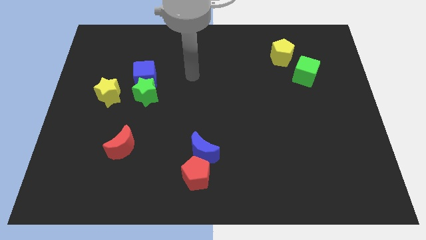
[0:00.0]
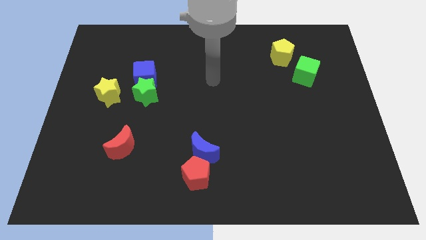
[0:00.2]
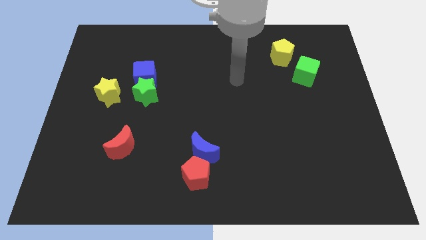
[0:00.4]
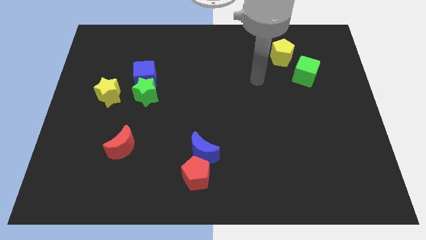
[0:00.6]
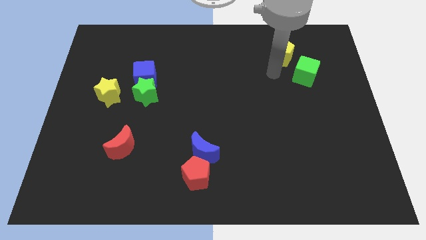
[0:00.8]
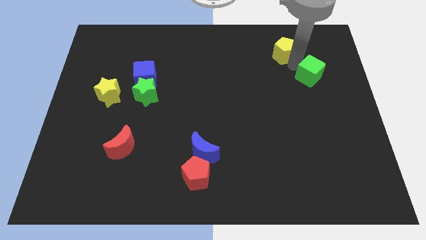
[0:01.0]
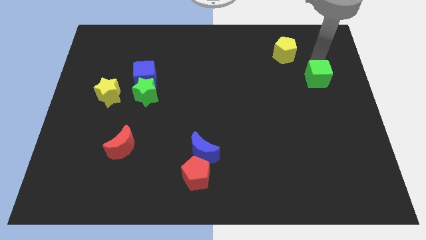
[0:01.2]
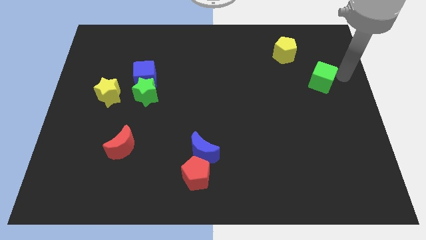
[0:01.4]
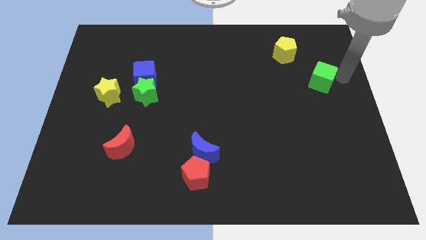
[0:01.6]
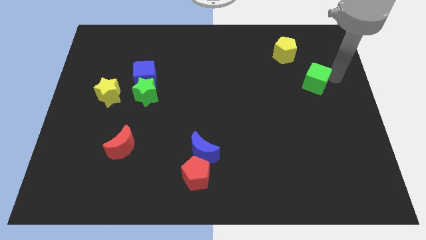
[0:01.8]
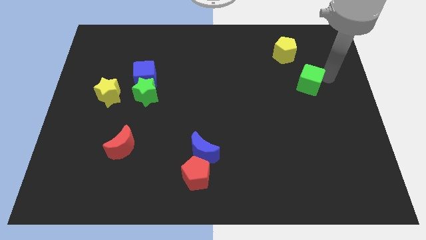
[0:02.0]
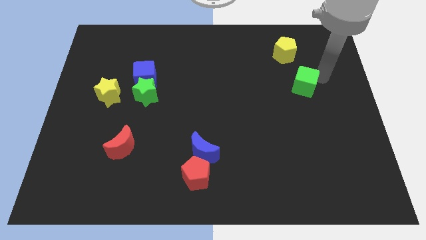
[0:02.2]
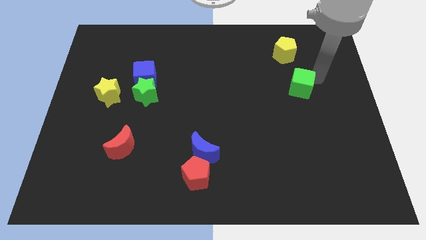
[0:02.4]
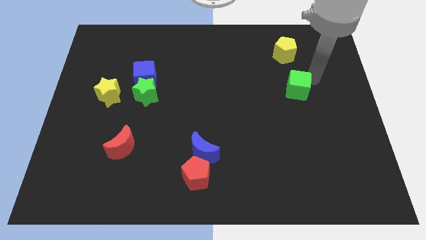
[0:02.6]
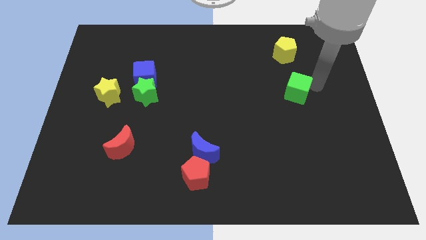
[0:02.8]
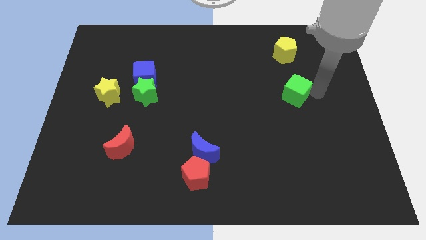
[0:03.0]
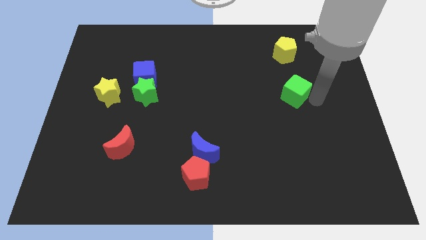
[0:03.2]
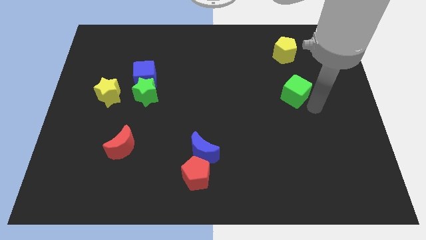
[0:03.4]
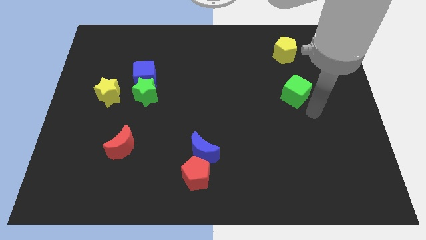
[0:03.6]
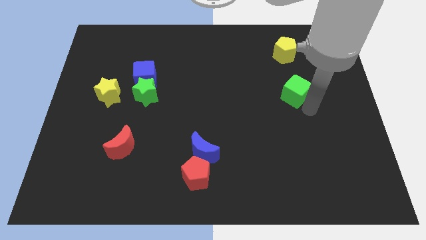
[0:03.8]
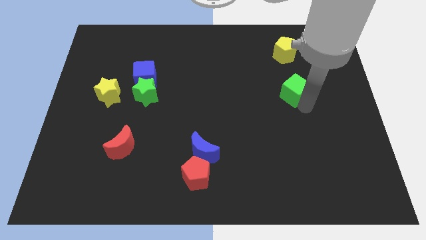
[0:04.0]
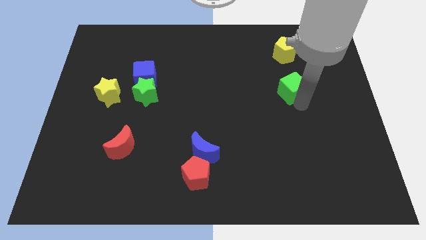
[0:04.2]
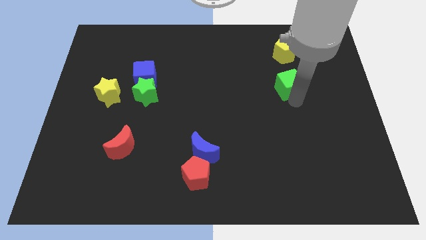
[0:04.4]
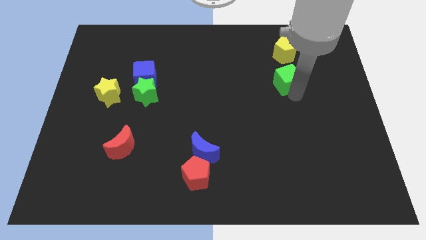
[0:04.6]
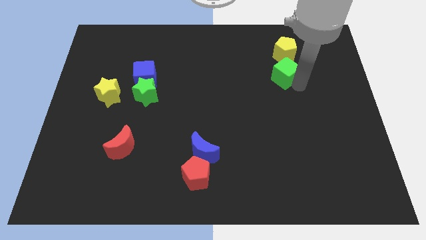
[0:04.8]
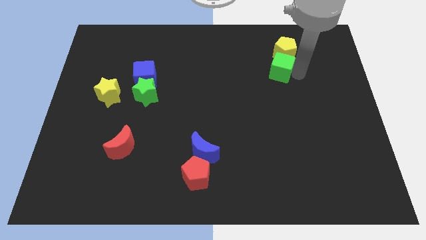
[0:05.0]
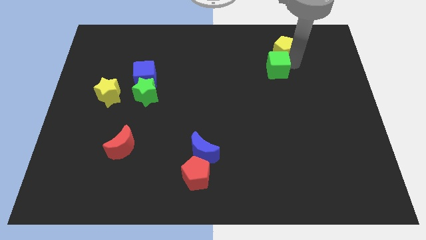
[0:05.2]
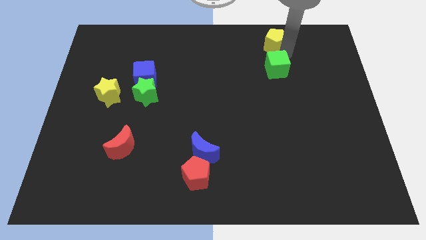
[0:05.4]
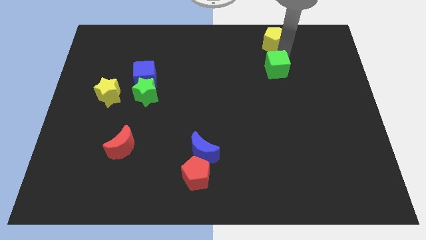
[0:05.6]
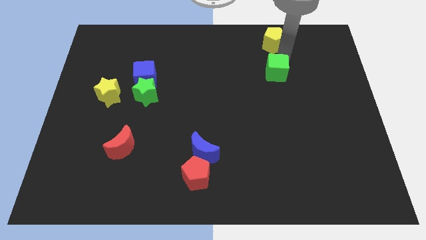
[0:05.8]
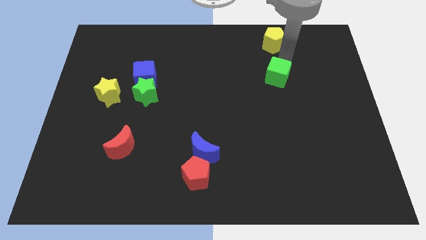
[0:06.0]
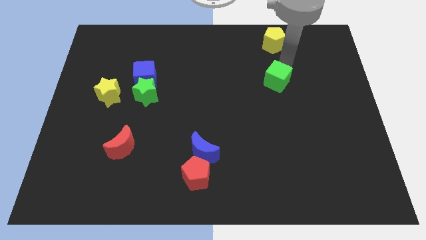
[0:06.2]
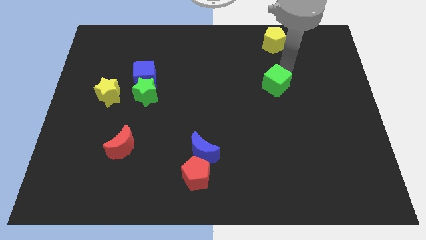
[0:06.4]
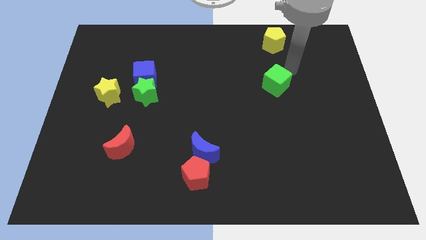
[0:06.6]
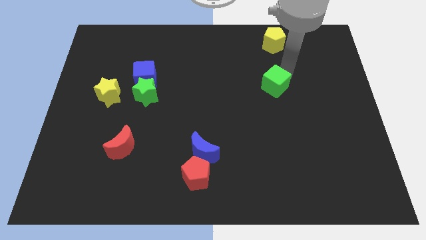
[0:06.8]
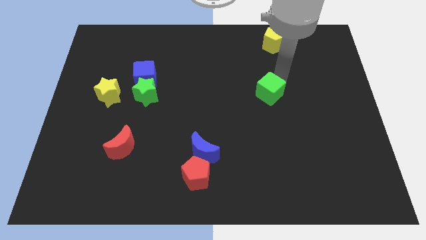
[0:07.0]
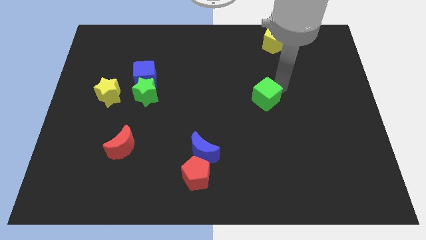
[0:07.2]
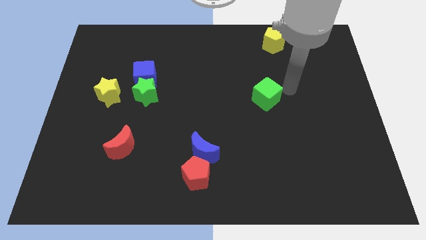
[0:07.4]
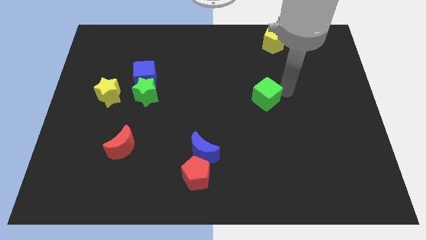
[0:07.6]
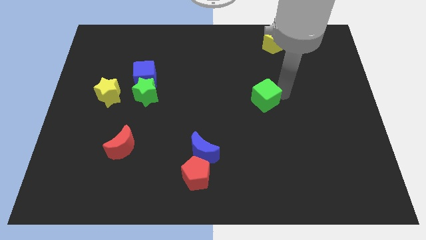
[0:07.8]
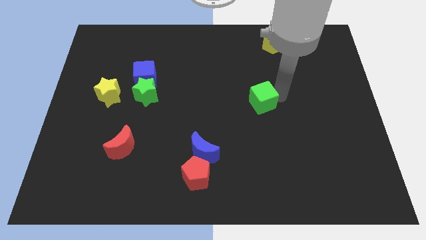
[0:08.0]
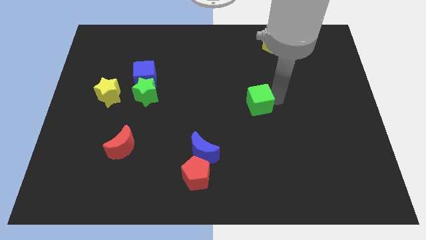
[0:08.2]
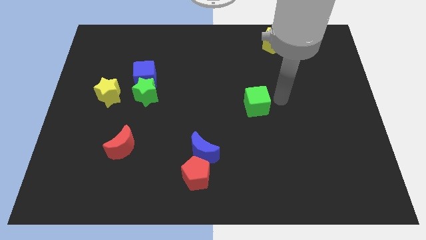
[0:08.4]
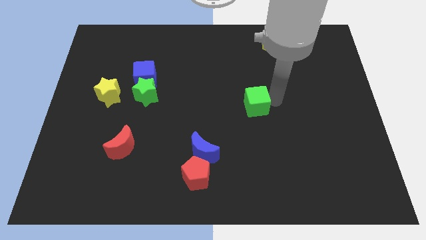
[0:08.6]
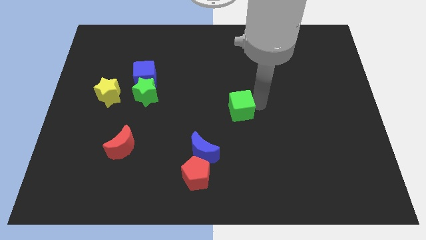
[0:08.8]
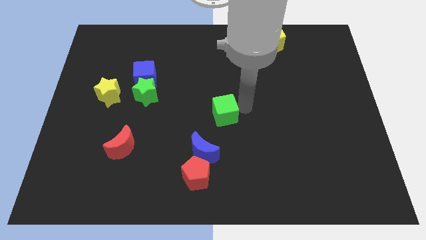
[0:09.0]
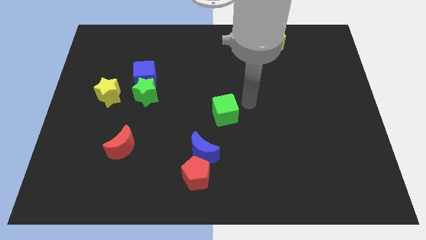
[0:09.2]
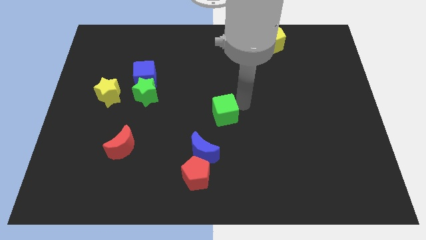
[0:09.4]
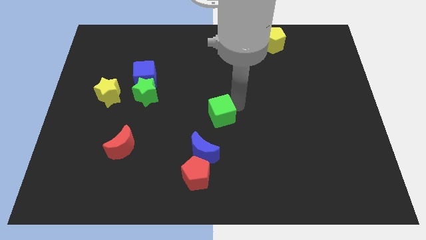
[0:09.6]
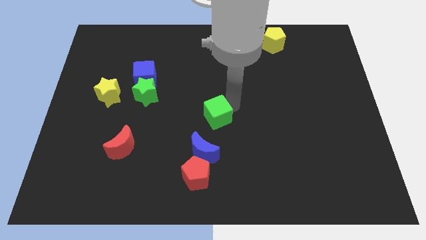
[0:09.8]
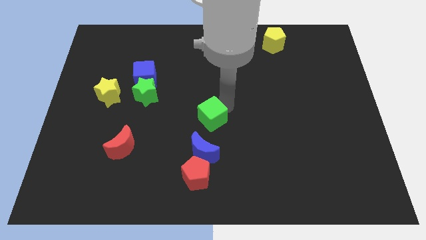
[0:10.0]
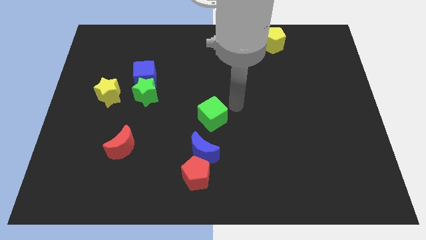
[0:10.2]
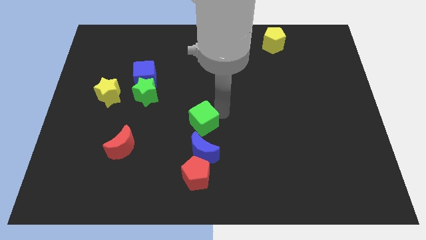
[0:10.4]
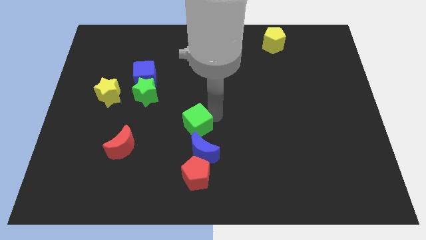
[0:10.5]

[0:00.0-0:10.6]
slide the green cube diagonally up and to the left of the blue moon

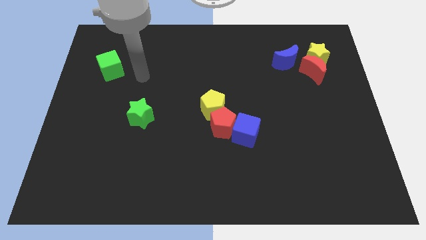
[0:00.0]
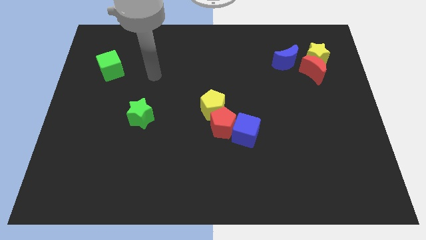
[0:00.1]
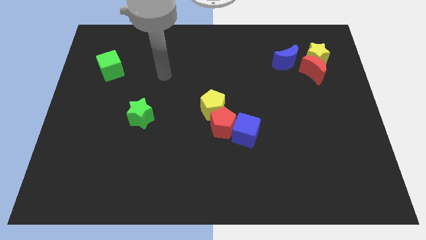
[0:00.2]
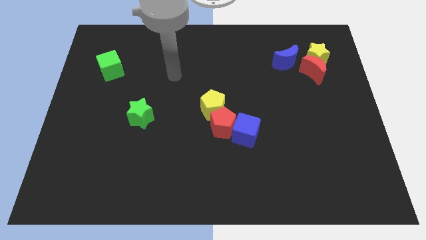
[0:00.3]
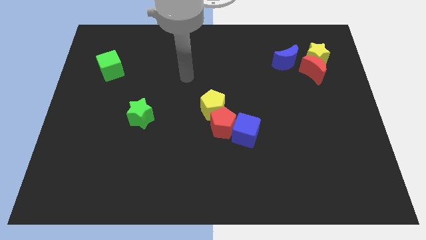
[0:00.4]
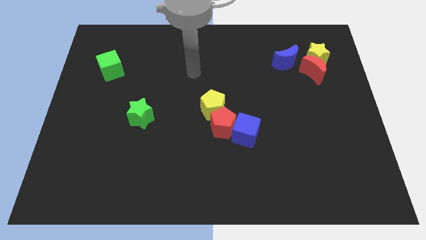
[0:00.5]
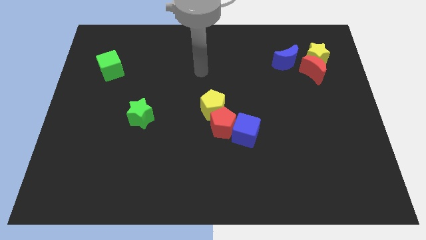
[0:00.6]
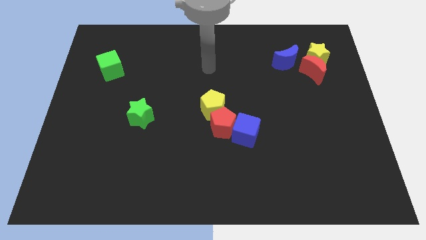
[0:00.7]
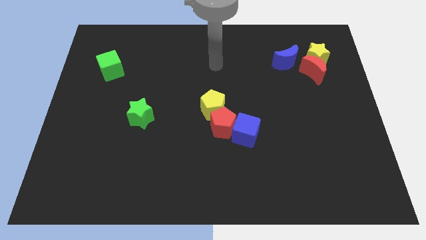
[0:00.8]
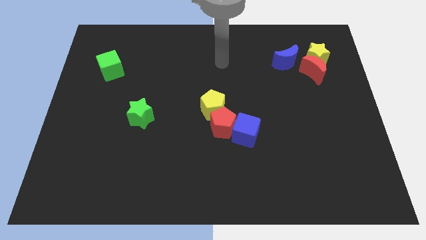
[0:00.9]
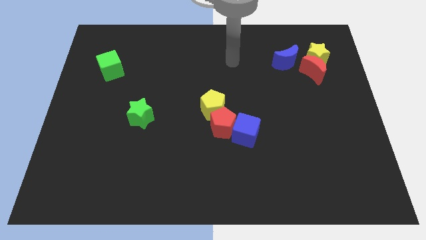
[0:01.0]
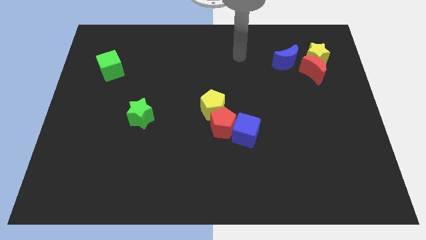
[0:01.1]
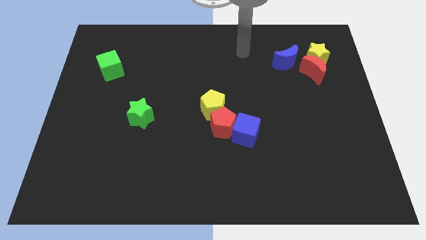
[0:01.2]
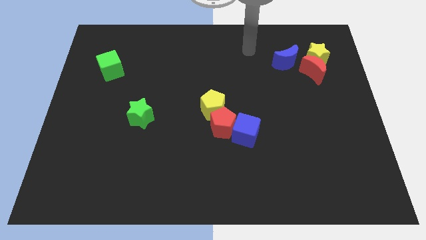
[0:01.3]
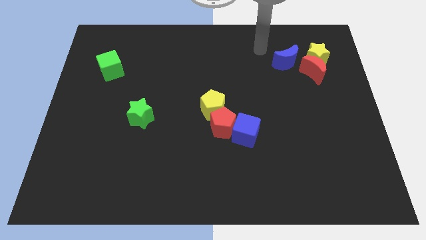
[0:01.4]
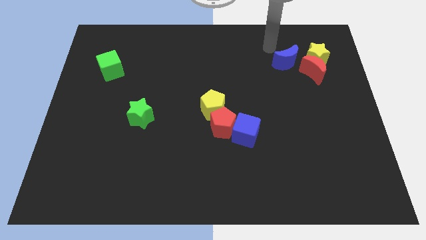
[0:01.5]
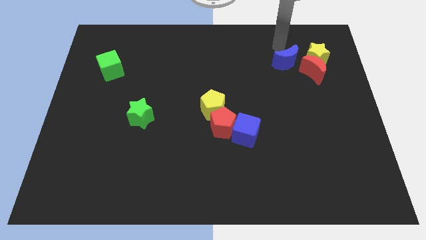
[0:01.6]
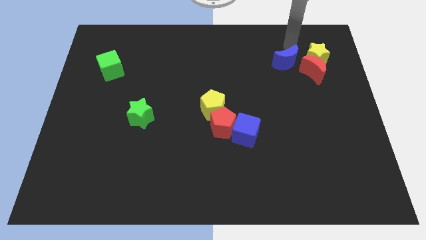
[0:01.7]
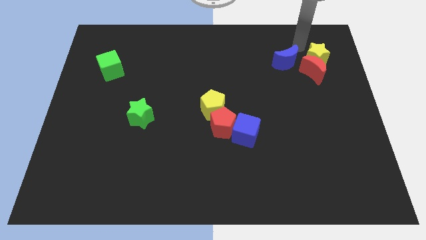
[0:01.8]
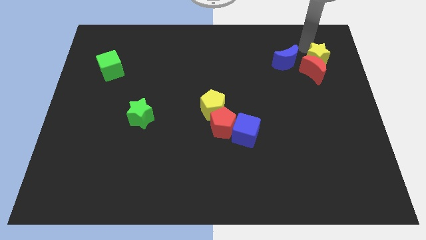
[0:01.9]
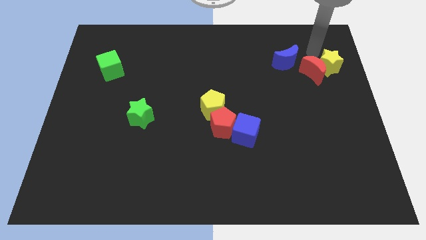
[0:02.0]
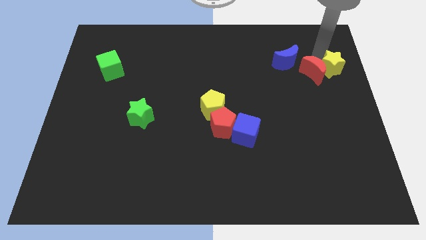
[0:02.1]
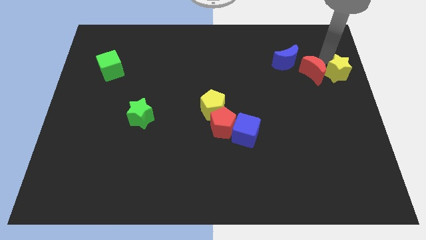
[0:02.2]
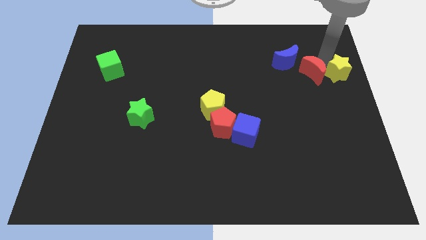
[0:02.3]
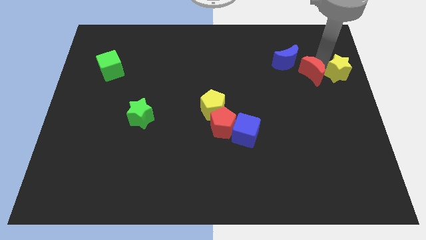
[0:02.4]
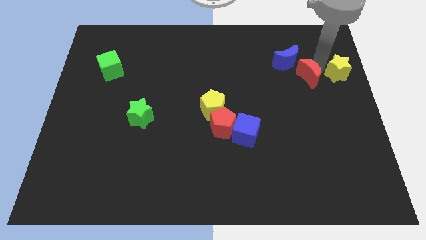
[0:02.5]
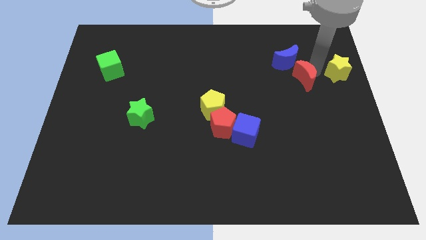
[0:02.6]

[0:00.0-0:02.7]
push the red moon to the bottom of the blue moon
